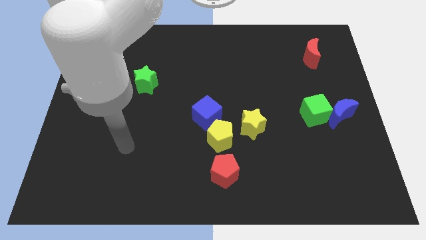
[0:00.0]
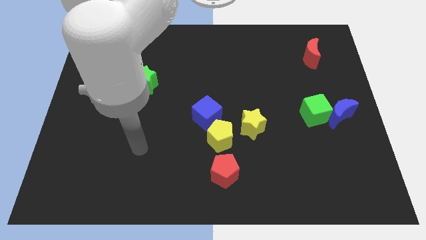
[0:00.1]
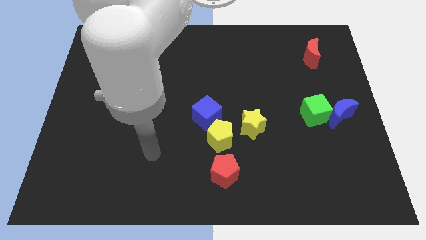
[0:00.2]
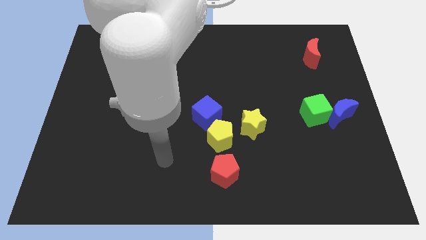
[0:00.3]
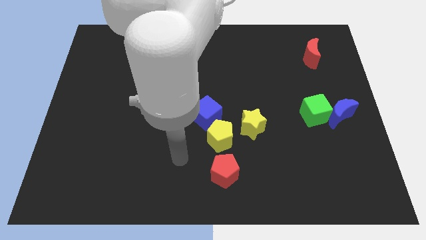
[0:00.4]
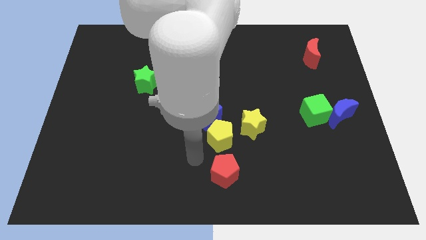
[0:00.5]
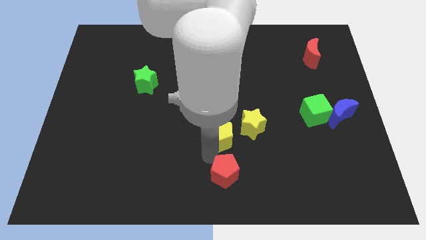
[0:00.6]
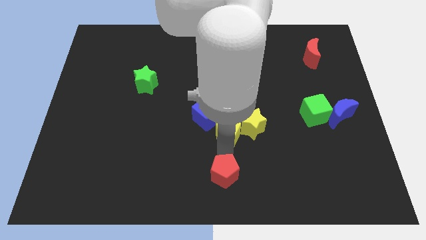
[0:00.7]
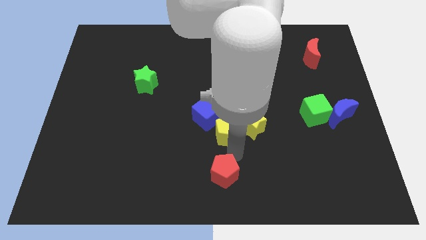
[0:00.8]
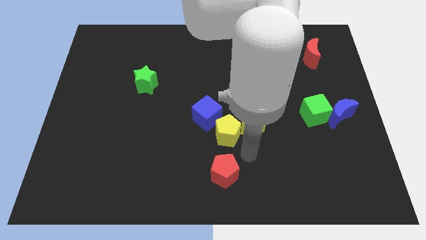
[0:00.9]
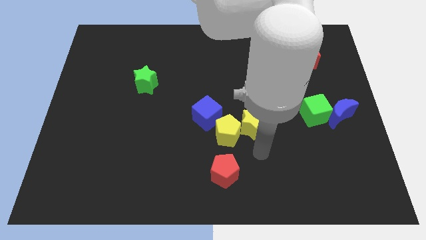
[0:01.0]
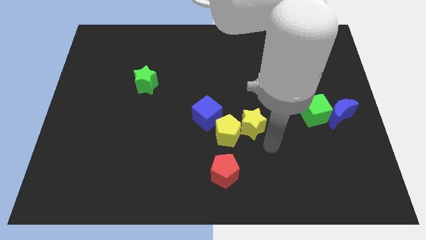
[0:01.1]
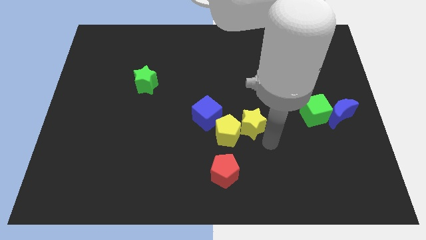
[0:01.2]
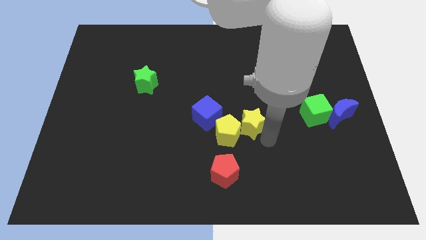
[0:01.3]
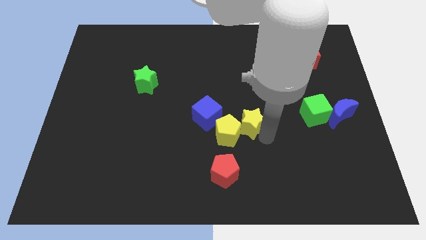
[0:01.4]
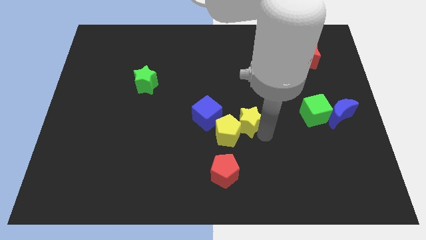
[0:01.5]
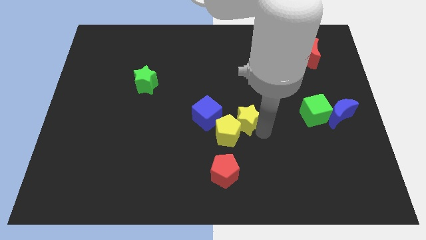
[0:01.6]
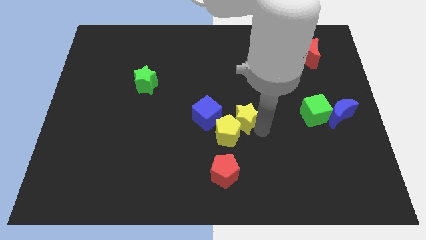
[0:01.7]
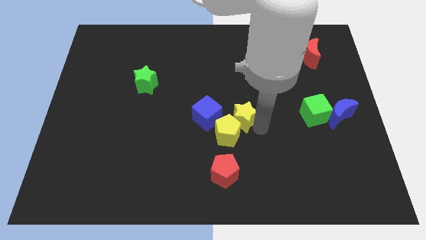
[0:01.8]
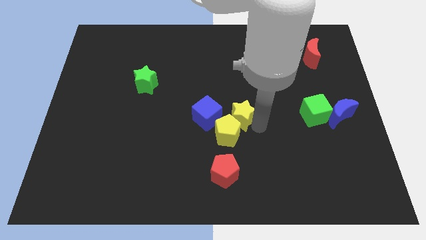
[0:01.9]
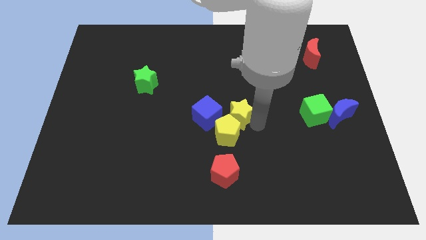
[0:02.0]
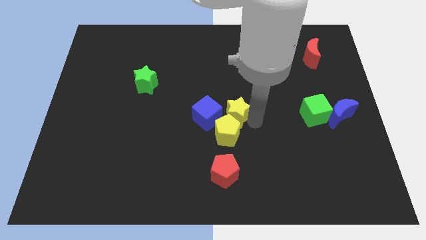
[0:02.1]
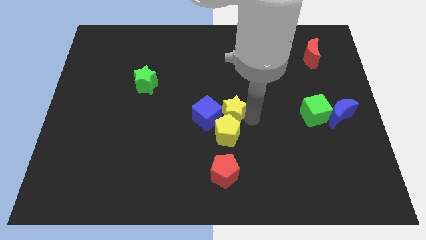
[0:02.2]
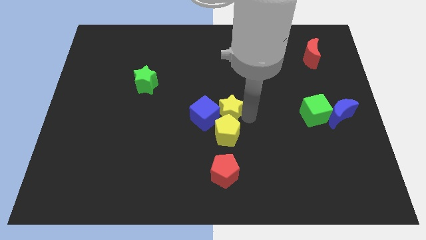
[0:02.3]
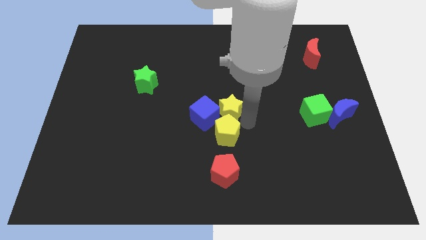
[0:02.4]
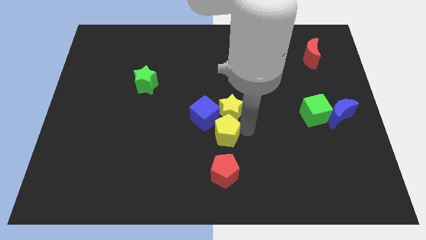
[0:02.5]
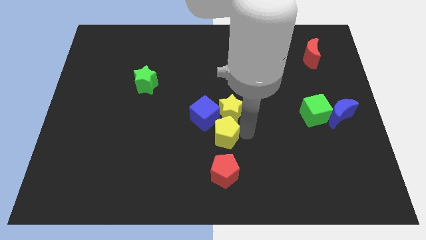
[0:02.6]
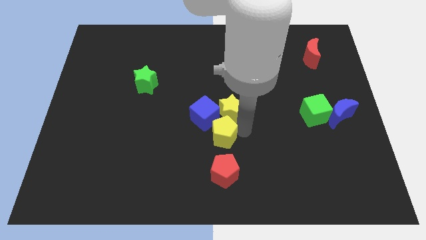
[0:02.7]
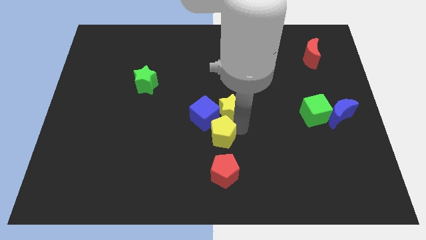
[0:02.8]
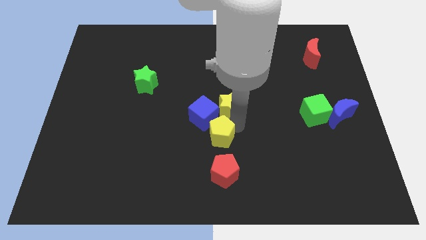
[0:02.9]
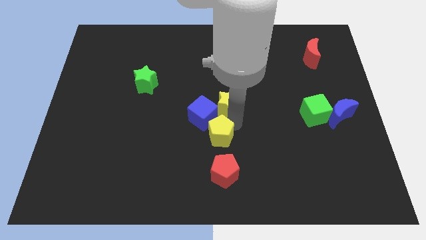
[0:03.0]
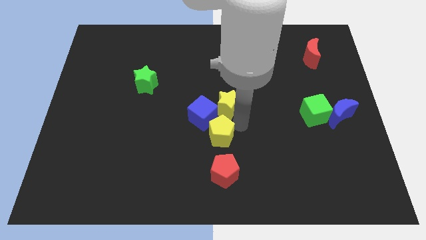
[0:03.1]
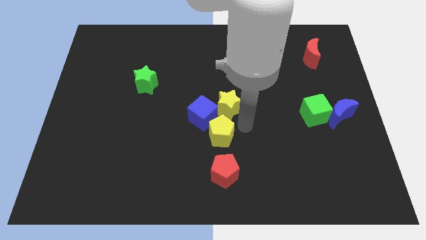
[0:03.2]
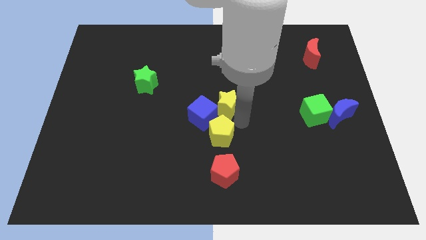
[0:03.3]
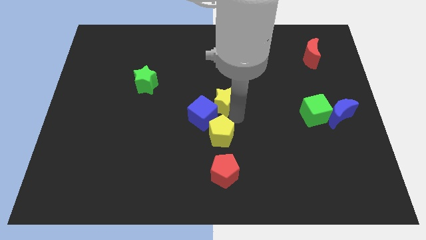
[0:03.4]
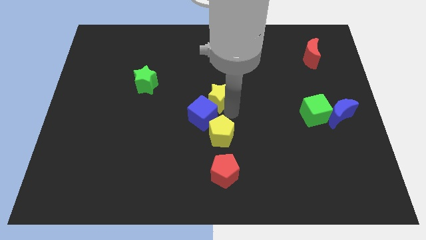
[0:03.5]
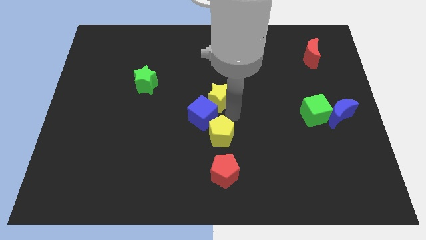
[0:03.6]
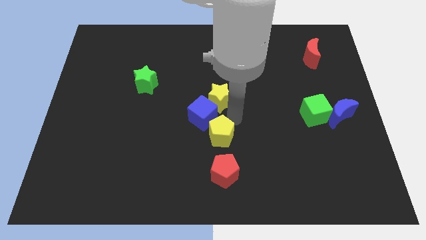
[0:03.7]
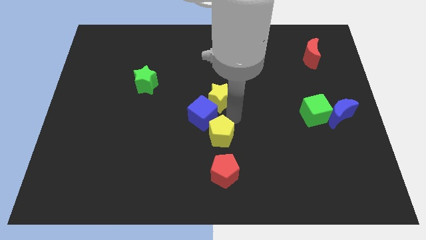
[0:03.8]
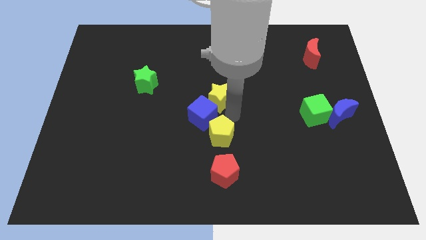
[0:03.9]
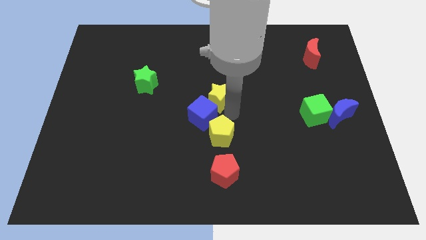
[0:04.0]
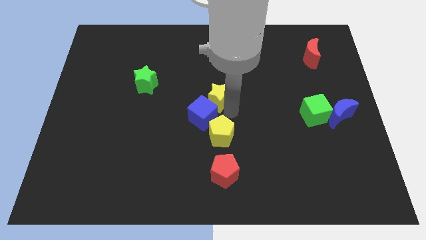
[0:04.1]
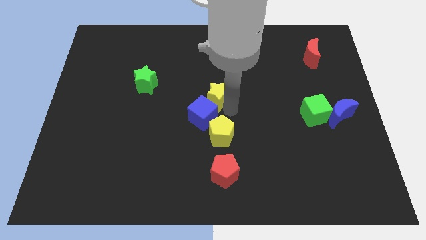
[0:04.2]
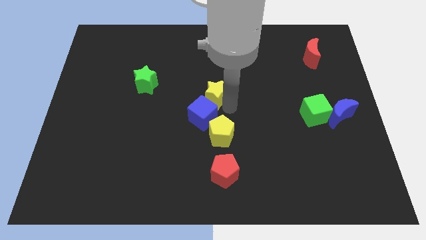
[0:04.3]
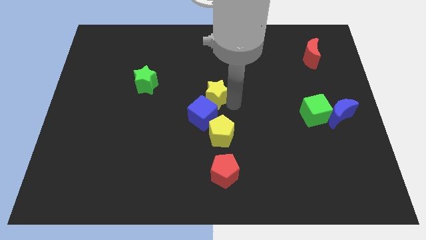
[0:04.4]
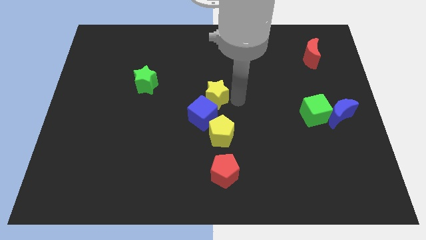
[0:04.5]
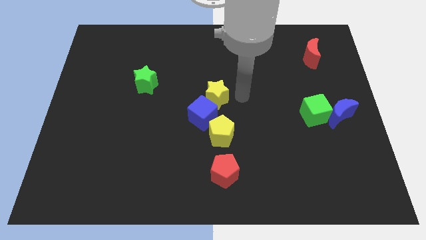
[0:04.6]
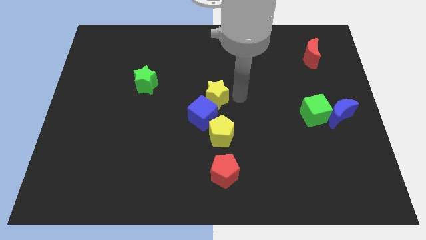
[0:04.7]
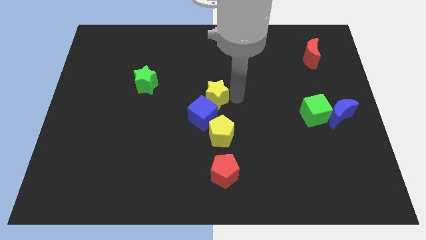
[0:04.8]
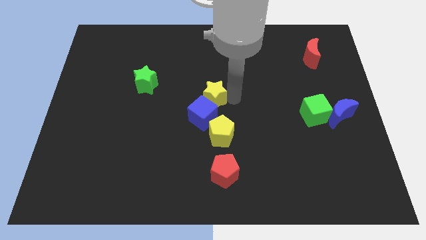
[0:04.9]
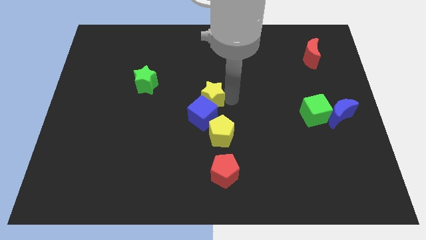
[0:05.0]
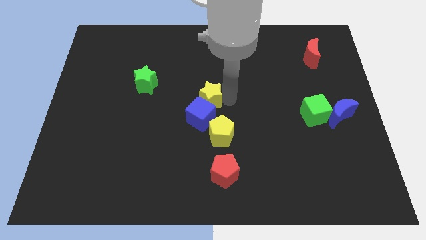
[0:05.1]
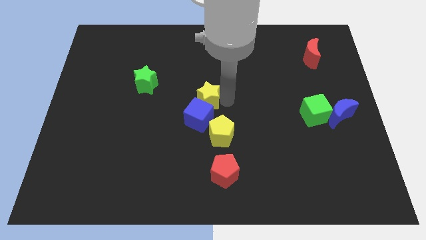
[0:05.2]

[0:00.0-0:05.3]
move the yellow star somewhat to the left

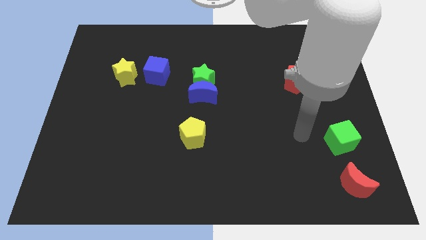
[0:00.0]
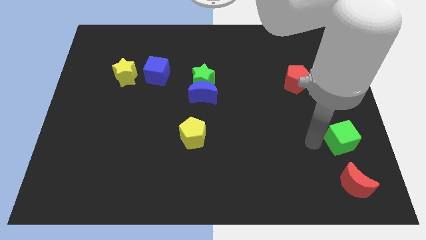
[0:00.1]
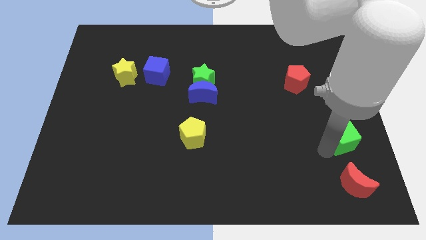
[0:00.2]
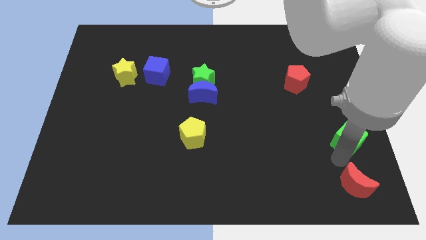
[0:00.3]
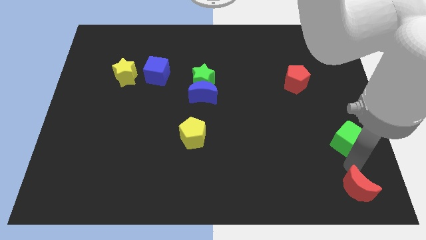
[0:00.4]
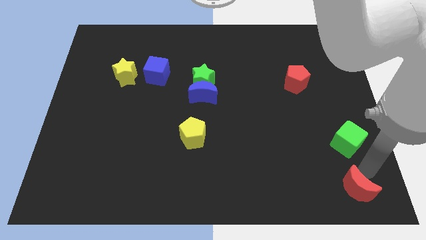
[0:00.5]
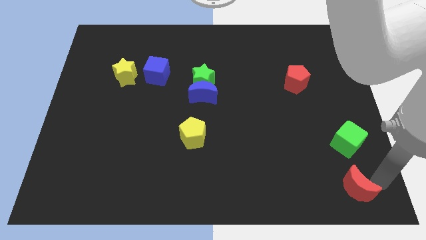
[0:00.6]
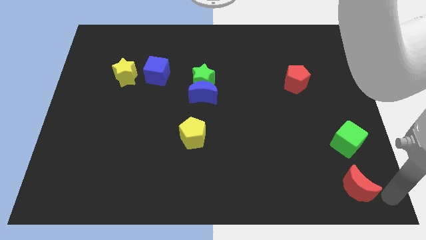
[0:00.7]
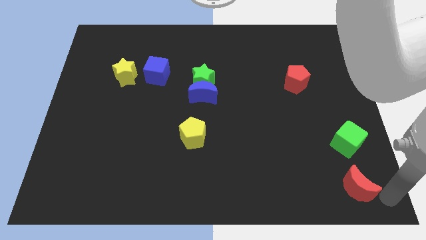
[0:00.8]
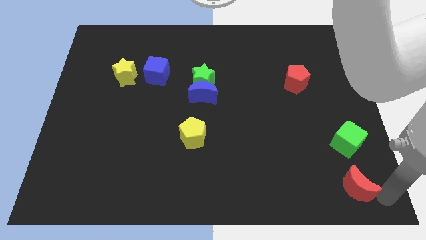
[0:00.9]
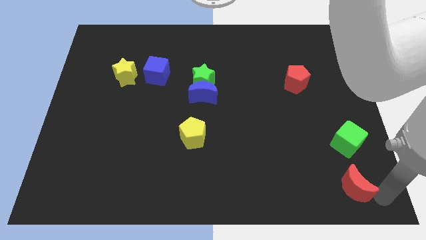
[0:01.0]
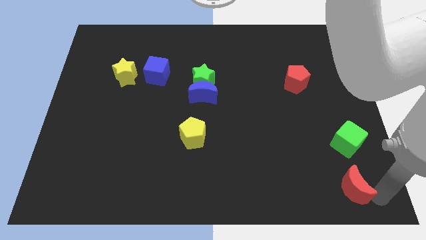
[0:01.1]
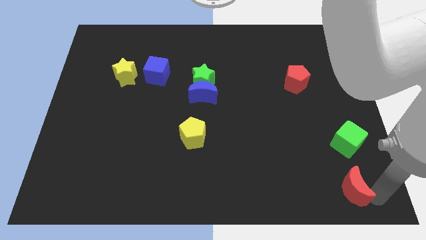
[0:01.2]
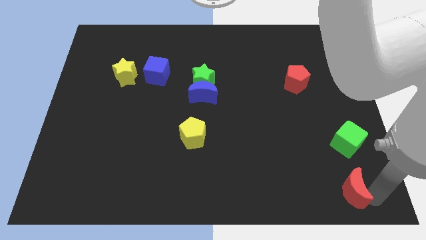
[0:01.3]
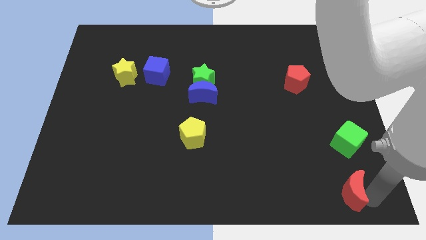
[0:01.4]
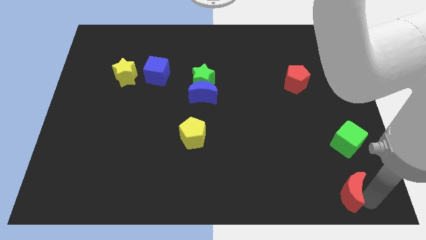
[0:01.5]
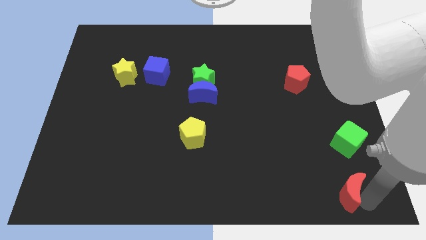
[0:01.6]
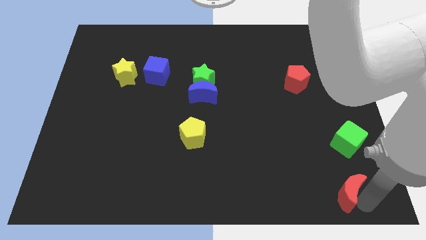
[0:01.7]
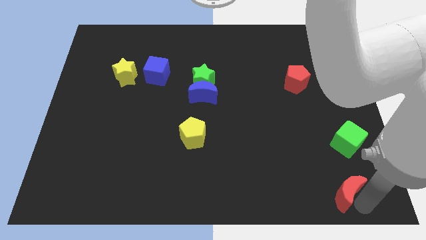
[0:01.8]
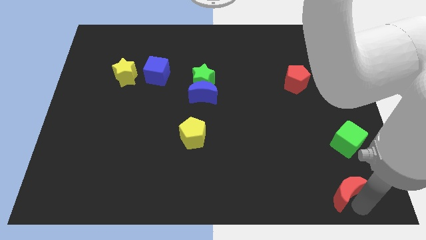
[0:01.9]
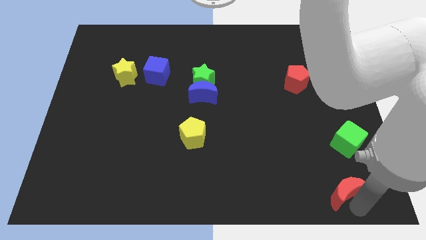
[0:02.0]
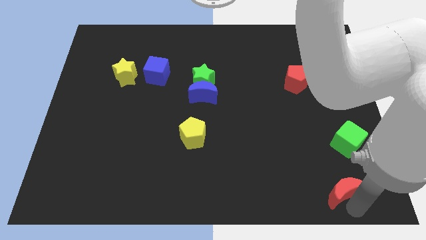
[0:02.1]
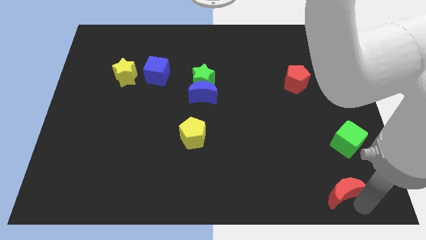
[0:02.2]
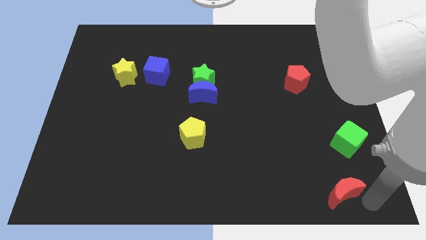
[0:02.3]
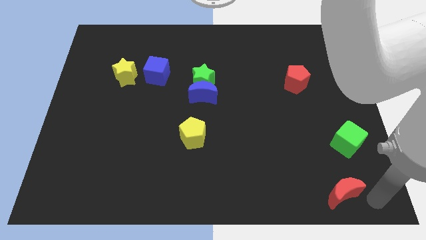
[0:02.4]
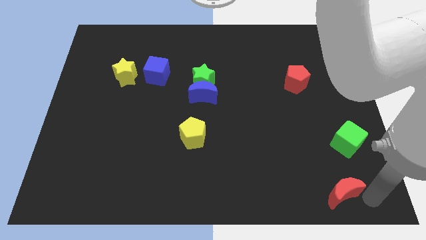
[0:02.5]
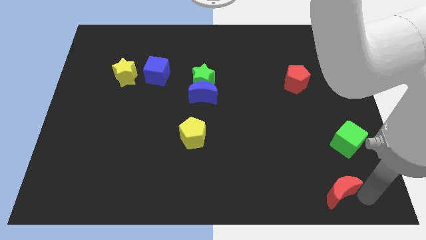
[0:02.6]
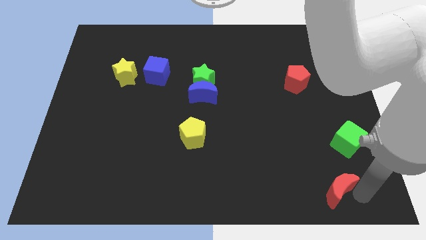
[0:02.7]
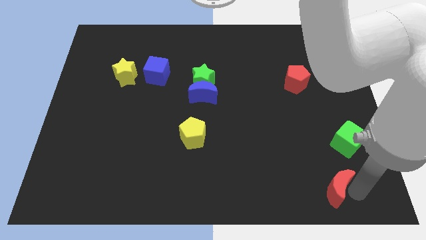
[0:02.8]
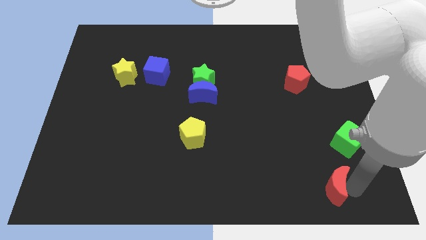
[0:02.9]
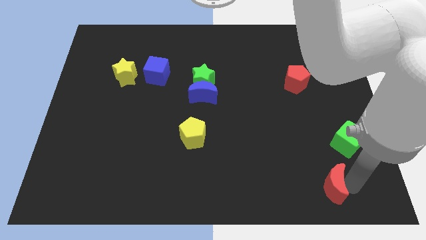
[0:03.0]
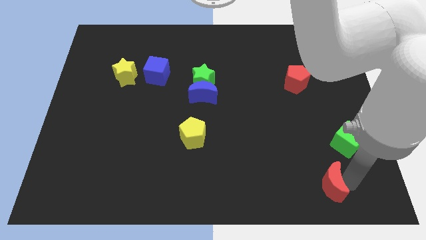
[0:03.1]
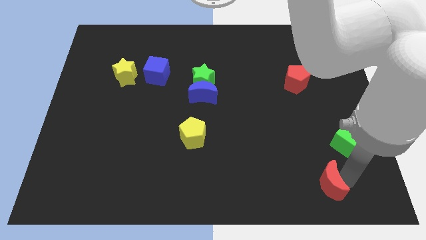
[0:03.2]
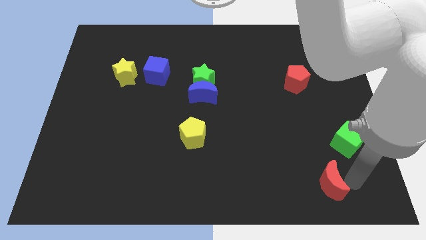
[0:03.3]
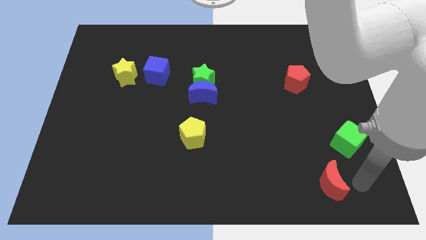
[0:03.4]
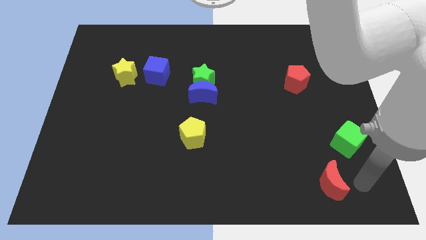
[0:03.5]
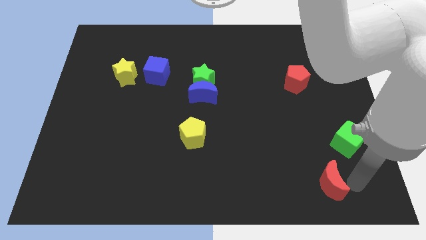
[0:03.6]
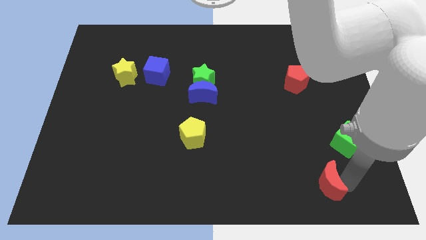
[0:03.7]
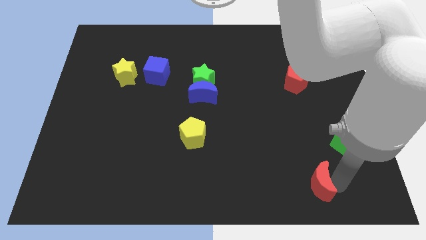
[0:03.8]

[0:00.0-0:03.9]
push the red moon left a little
